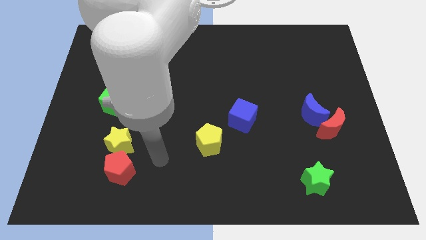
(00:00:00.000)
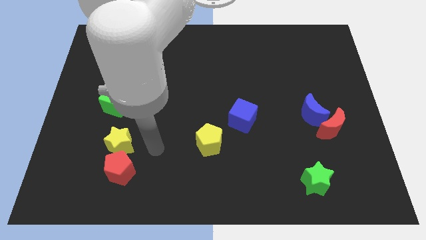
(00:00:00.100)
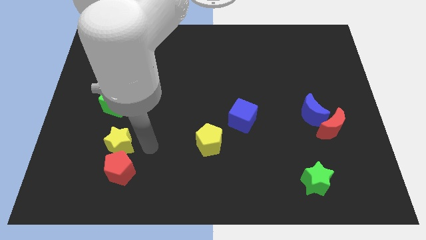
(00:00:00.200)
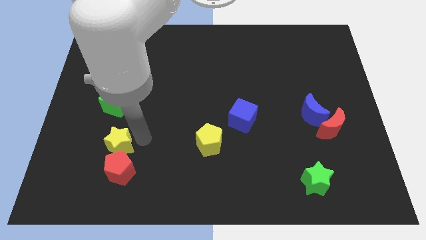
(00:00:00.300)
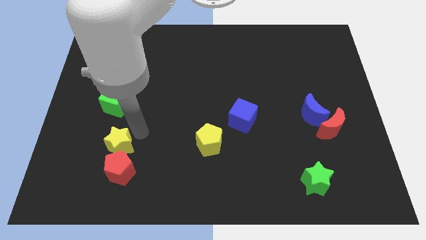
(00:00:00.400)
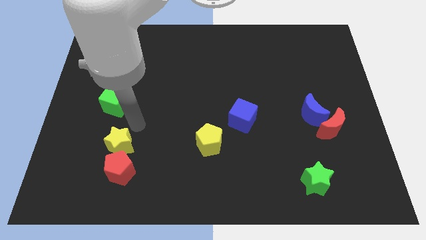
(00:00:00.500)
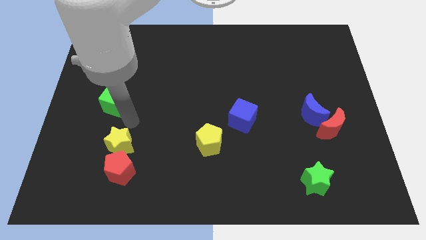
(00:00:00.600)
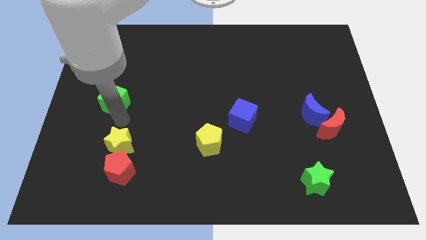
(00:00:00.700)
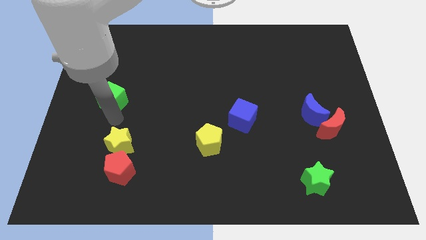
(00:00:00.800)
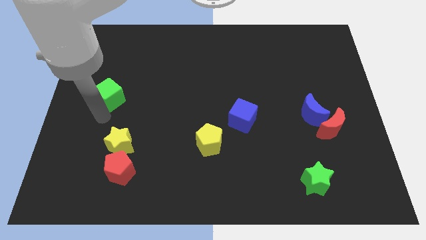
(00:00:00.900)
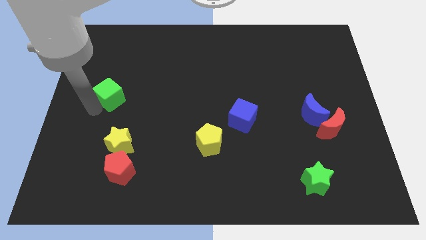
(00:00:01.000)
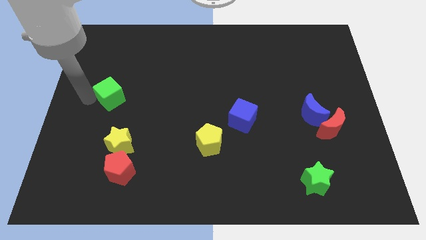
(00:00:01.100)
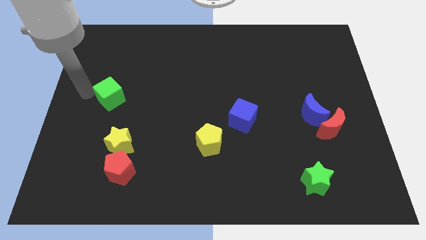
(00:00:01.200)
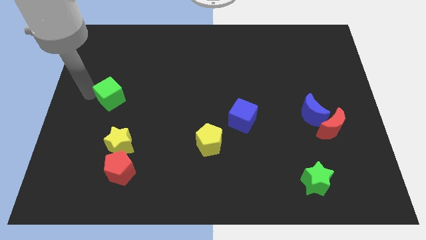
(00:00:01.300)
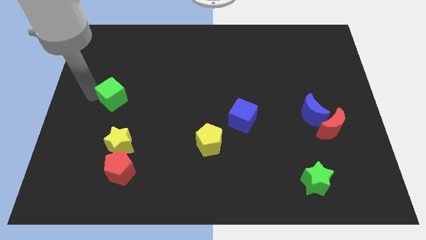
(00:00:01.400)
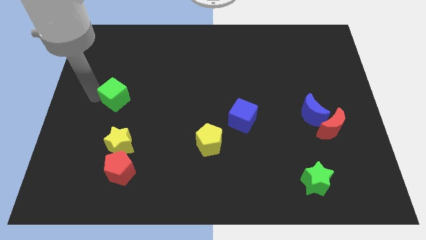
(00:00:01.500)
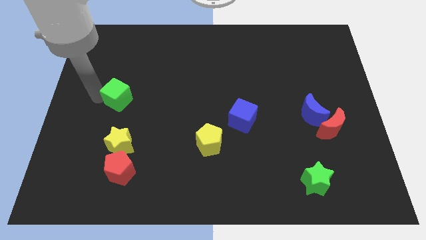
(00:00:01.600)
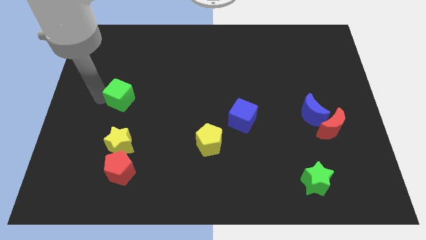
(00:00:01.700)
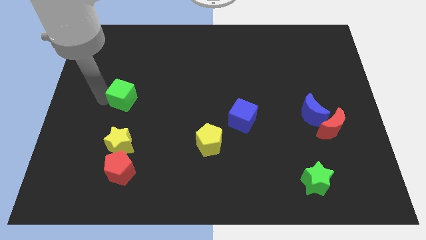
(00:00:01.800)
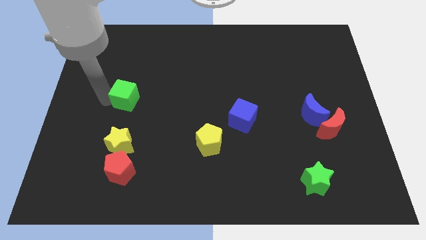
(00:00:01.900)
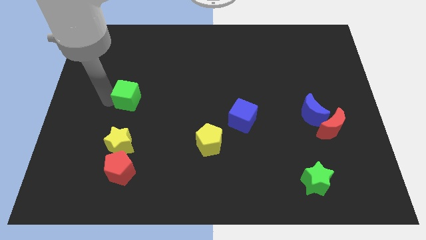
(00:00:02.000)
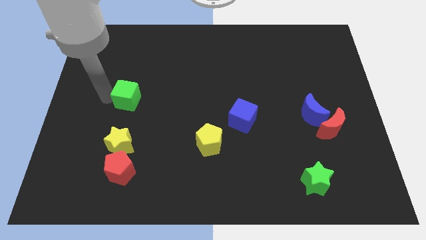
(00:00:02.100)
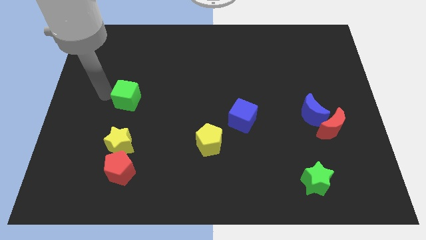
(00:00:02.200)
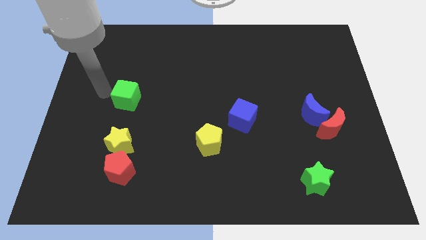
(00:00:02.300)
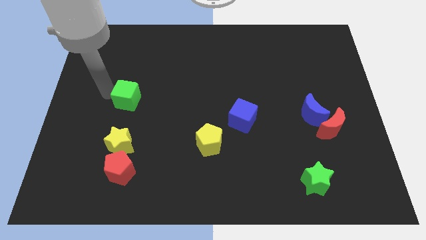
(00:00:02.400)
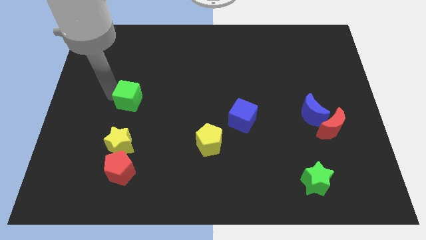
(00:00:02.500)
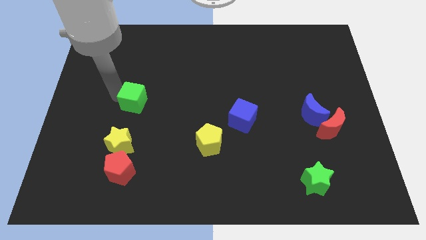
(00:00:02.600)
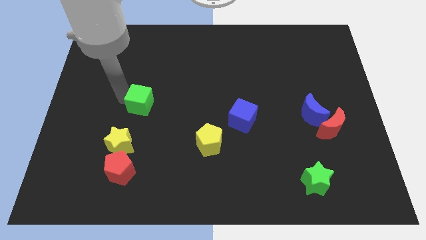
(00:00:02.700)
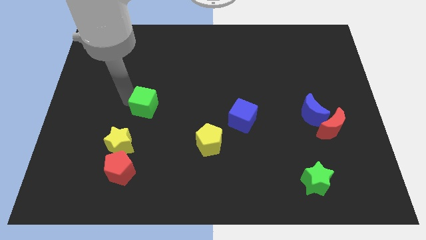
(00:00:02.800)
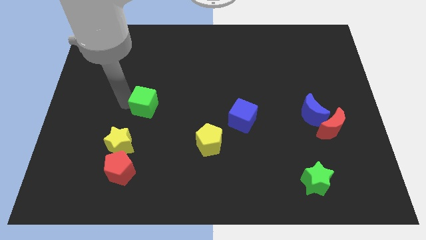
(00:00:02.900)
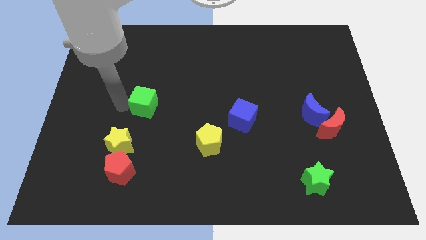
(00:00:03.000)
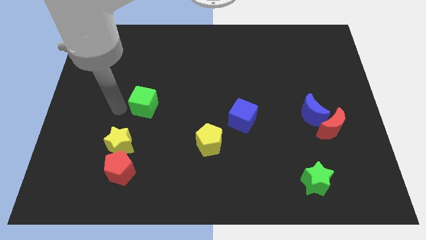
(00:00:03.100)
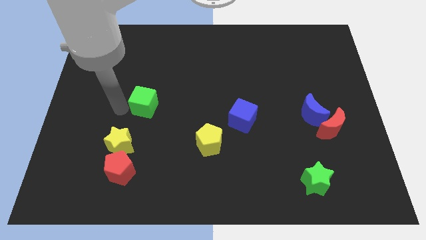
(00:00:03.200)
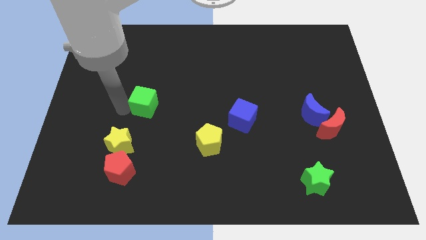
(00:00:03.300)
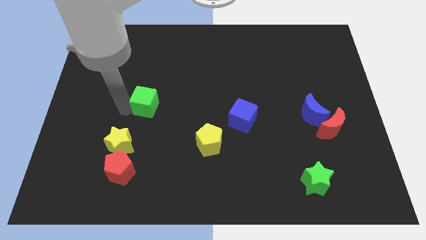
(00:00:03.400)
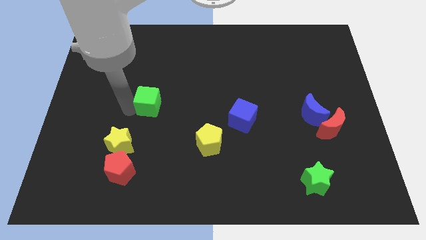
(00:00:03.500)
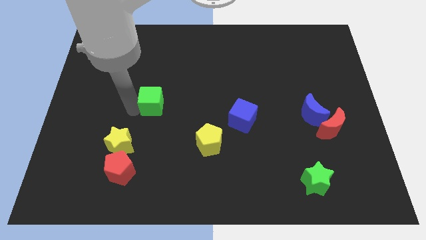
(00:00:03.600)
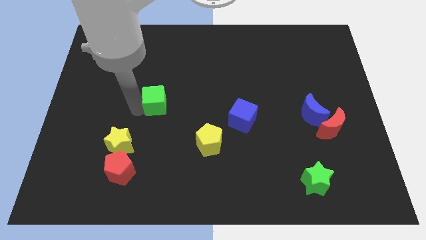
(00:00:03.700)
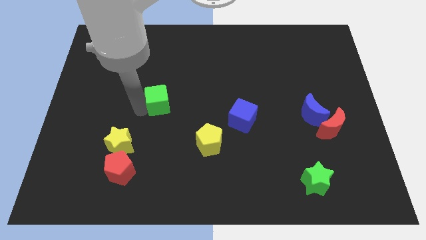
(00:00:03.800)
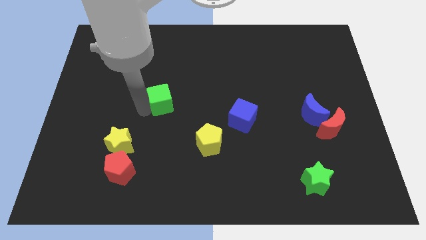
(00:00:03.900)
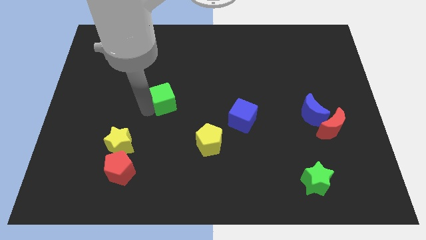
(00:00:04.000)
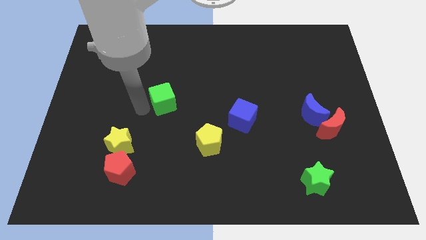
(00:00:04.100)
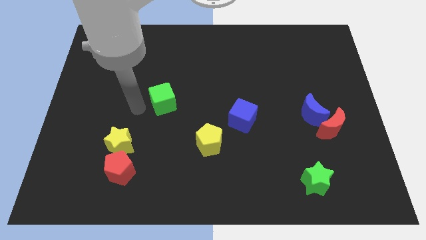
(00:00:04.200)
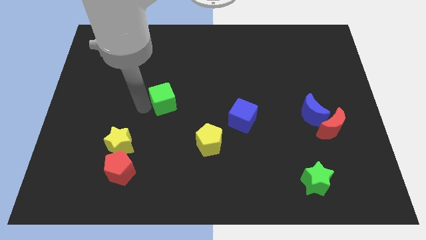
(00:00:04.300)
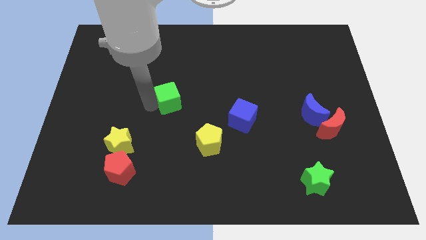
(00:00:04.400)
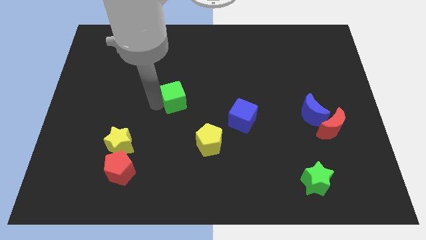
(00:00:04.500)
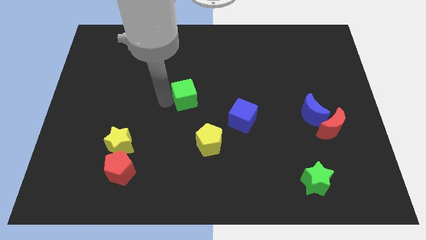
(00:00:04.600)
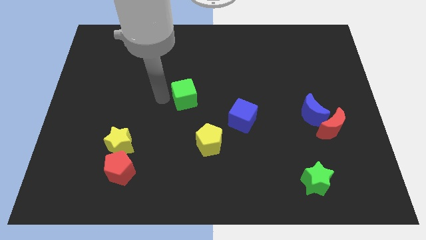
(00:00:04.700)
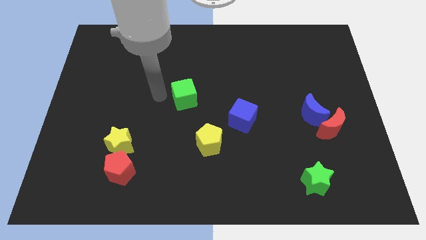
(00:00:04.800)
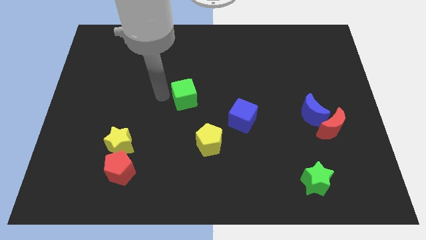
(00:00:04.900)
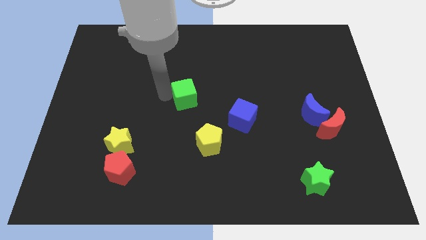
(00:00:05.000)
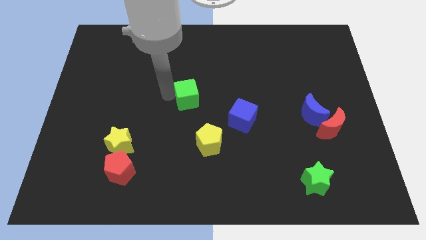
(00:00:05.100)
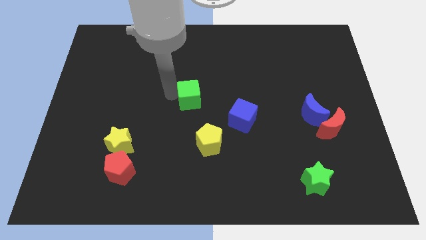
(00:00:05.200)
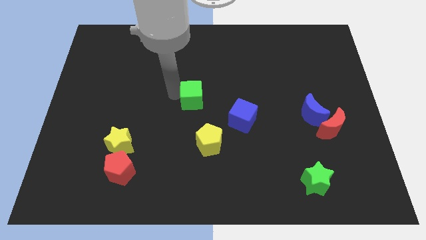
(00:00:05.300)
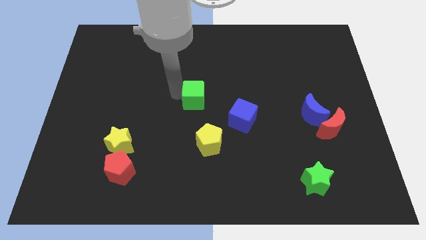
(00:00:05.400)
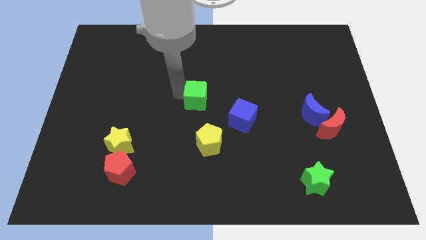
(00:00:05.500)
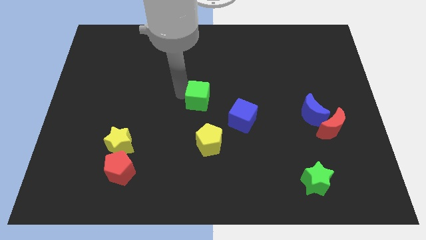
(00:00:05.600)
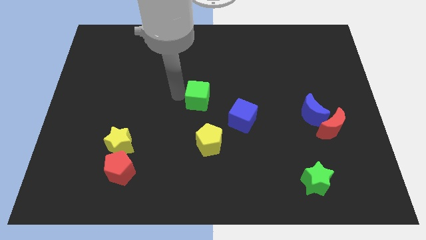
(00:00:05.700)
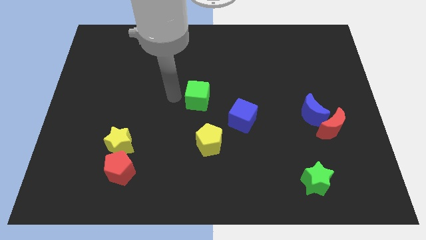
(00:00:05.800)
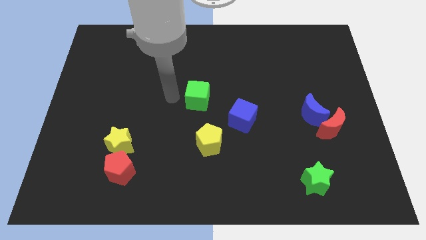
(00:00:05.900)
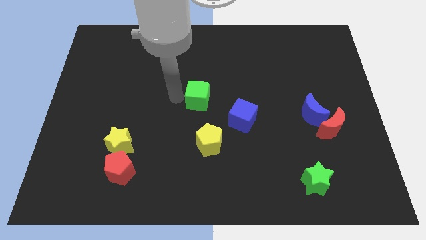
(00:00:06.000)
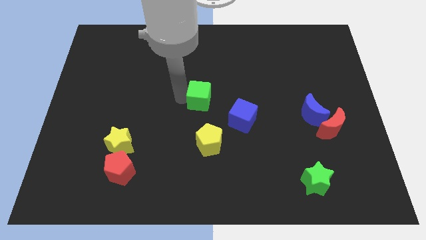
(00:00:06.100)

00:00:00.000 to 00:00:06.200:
move the green cube right

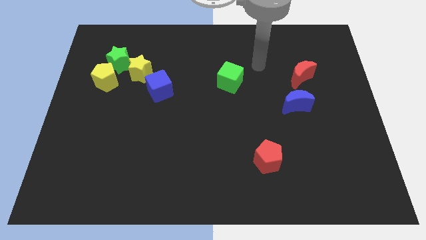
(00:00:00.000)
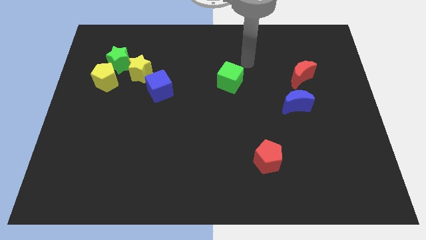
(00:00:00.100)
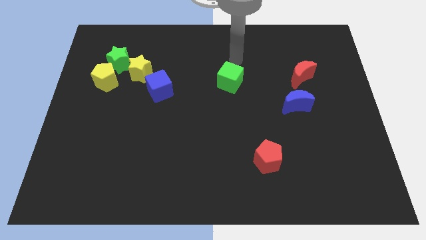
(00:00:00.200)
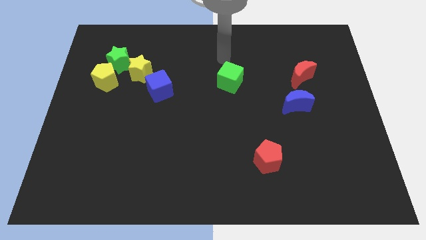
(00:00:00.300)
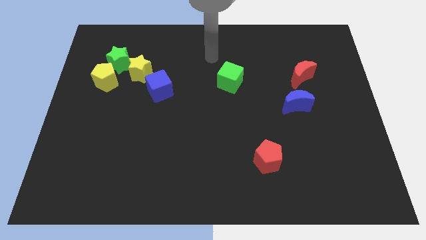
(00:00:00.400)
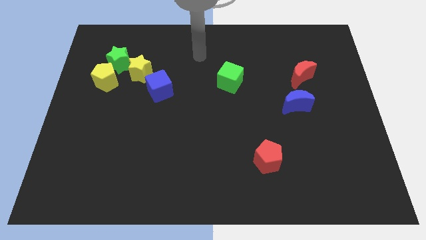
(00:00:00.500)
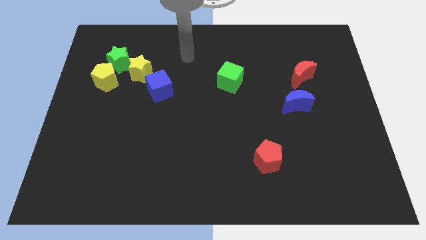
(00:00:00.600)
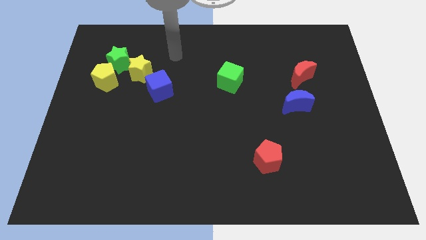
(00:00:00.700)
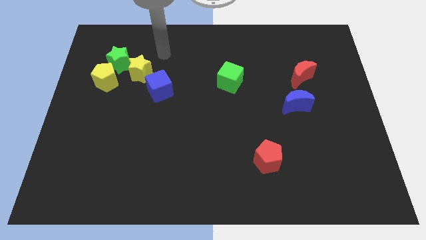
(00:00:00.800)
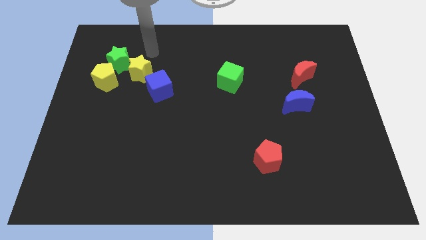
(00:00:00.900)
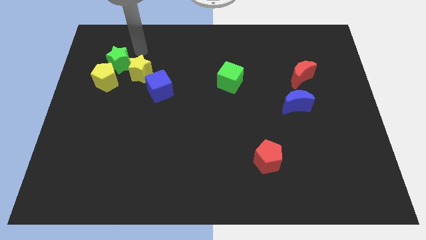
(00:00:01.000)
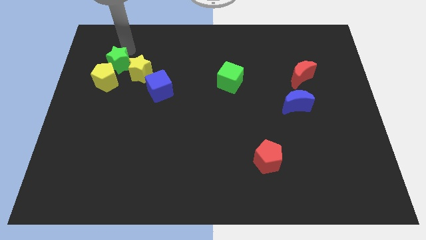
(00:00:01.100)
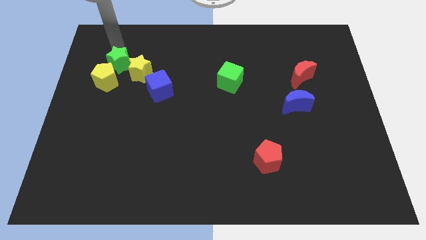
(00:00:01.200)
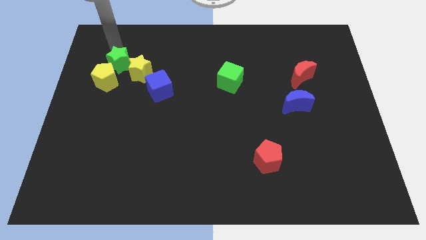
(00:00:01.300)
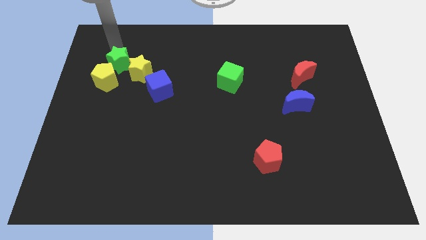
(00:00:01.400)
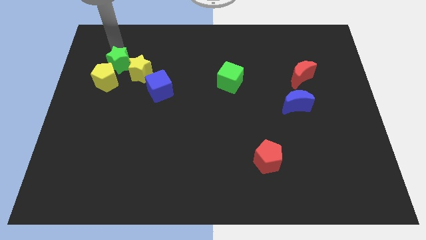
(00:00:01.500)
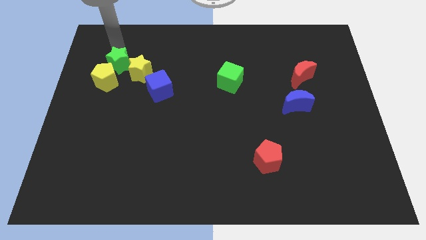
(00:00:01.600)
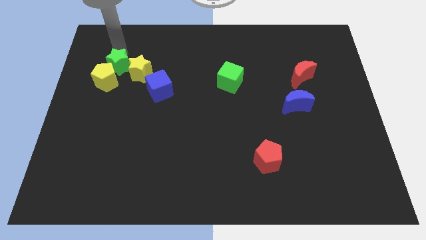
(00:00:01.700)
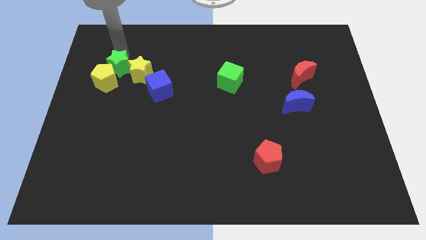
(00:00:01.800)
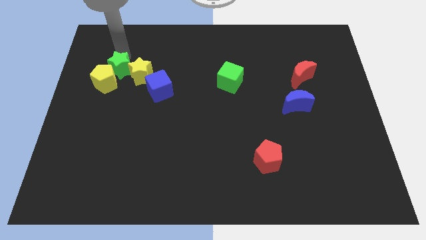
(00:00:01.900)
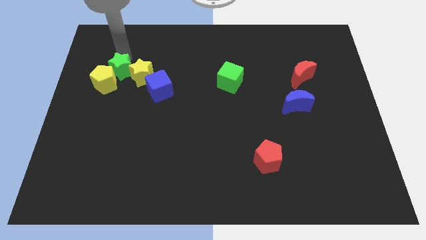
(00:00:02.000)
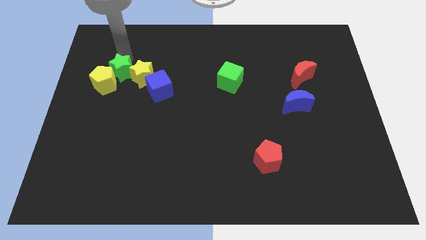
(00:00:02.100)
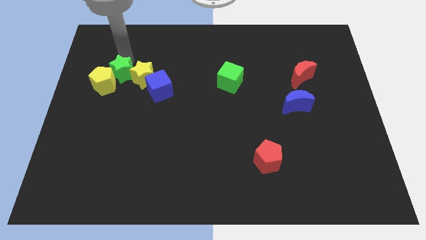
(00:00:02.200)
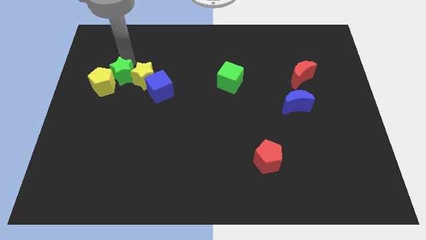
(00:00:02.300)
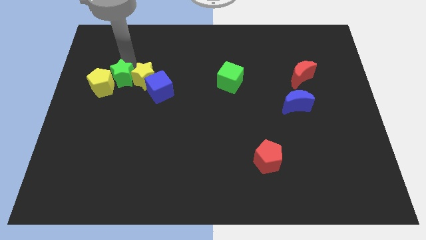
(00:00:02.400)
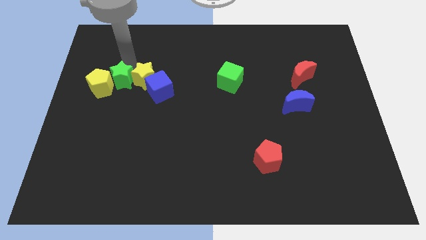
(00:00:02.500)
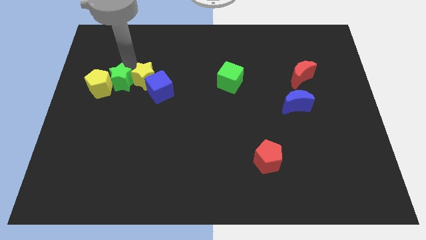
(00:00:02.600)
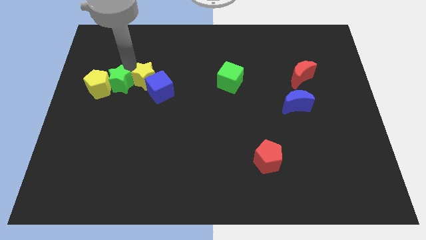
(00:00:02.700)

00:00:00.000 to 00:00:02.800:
move the green star a little down
